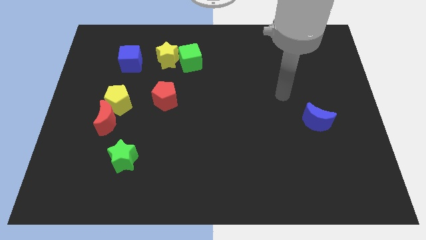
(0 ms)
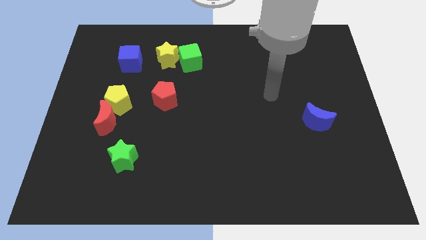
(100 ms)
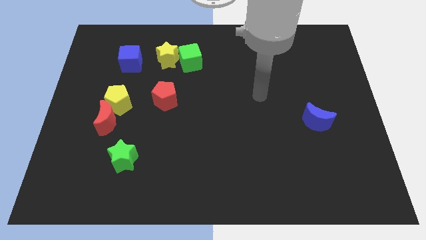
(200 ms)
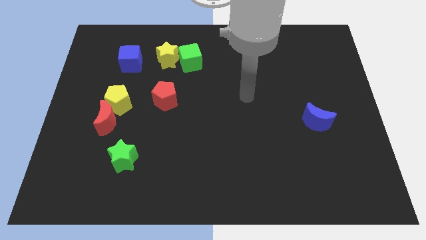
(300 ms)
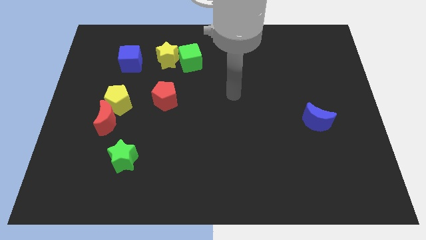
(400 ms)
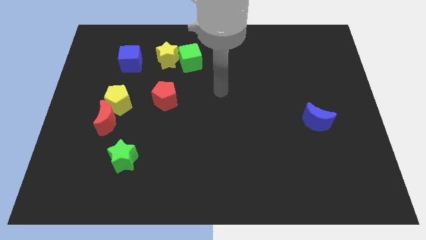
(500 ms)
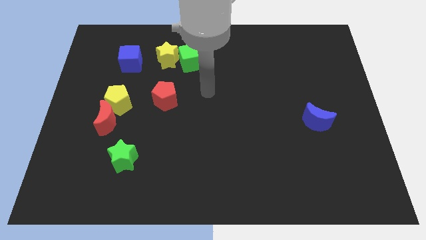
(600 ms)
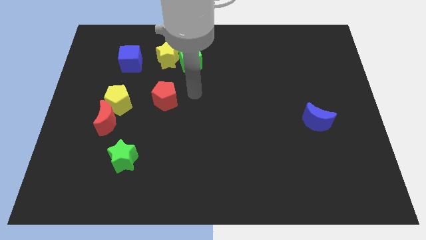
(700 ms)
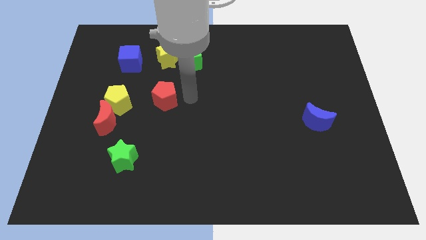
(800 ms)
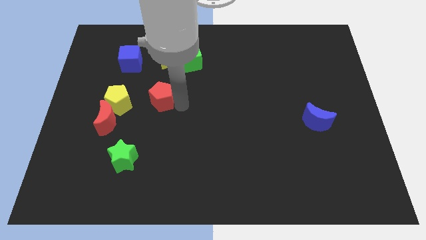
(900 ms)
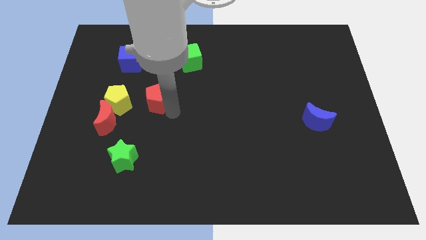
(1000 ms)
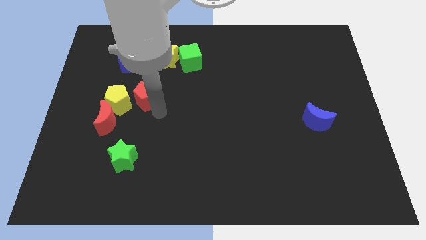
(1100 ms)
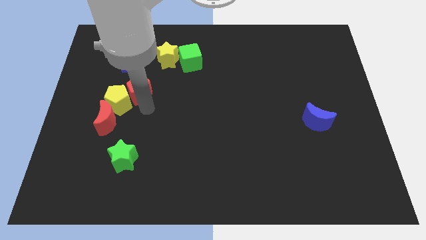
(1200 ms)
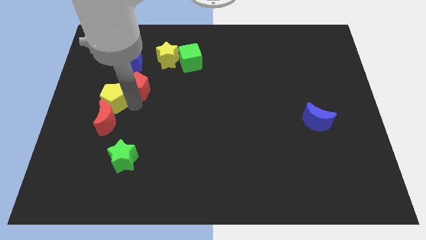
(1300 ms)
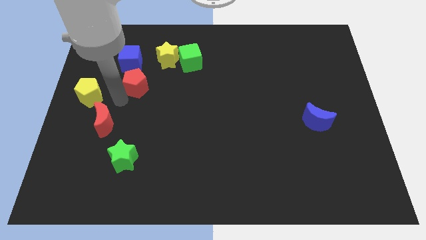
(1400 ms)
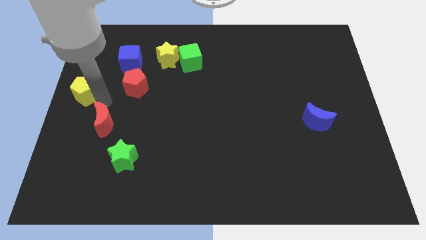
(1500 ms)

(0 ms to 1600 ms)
move the red moon away from the yellow pentagon

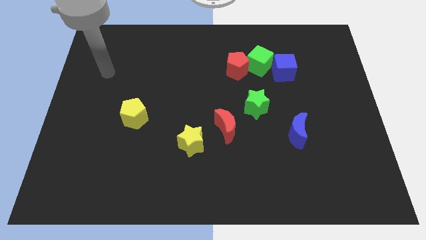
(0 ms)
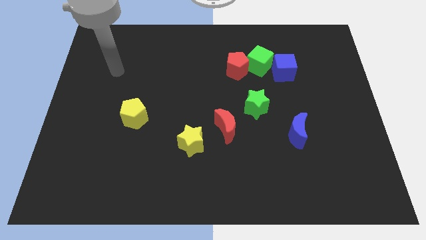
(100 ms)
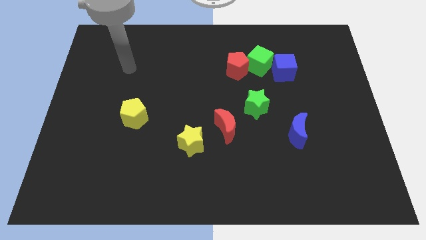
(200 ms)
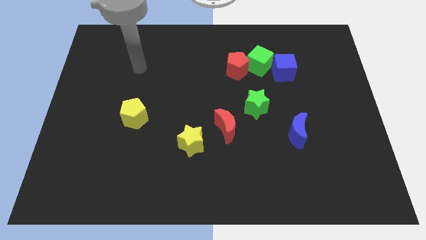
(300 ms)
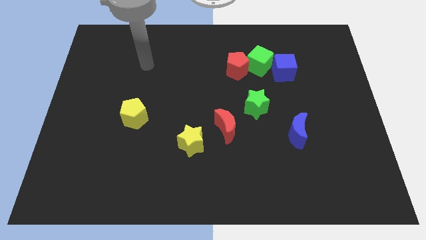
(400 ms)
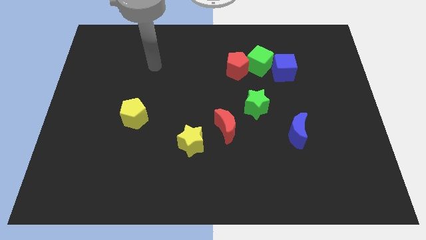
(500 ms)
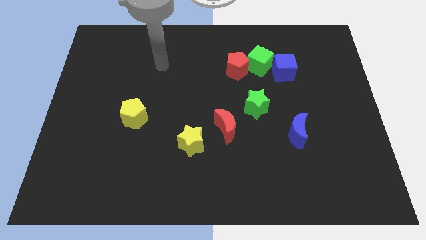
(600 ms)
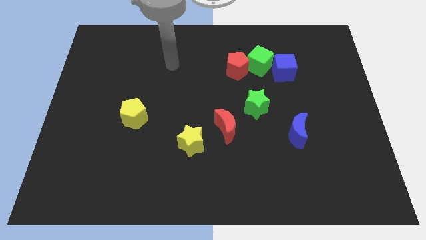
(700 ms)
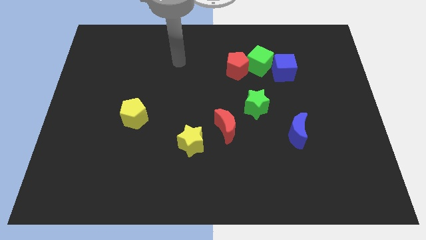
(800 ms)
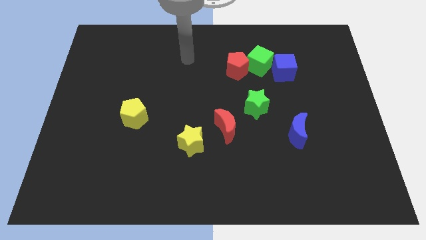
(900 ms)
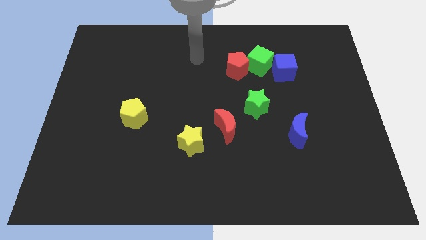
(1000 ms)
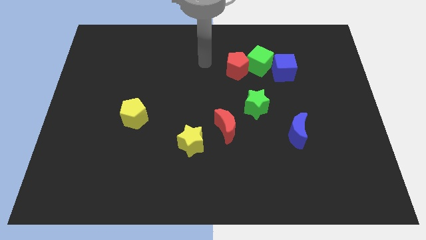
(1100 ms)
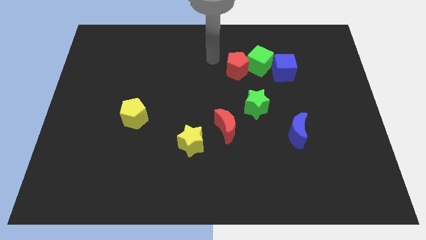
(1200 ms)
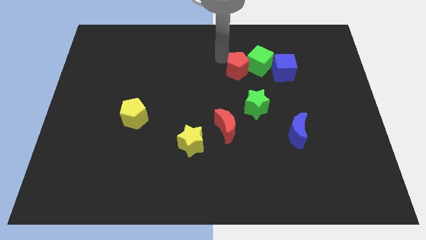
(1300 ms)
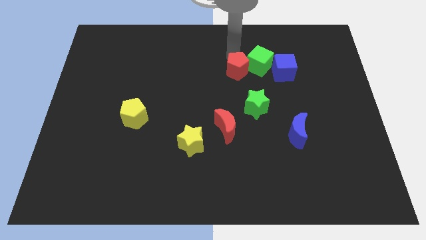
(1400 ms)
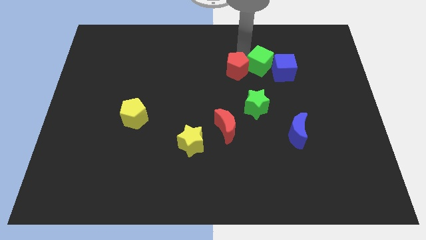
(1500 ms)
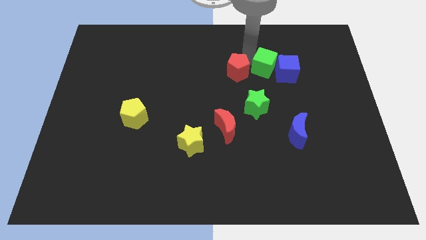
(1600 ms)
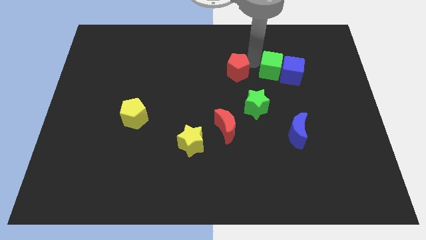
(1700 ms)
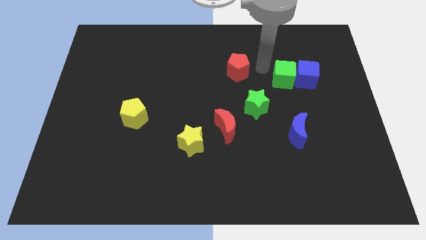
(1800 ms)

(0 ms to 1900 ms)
separate the red pentagon from the green cube

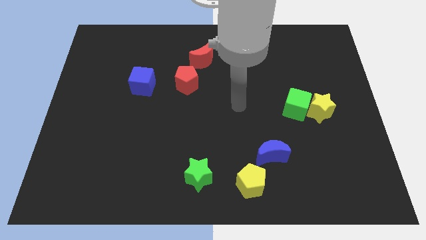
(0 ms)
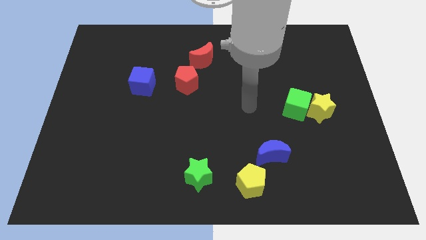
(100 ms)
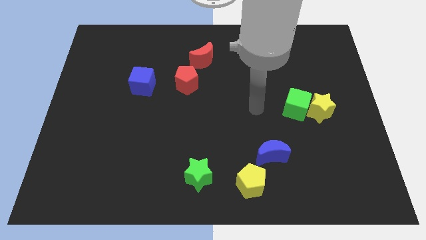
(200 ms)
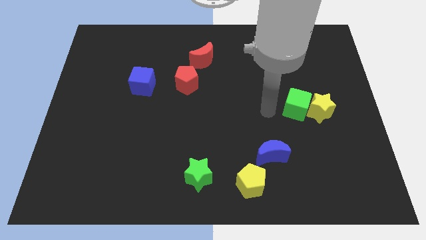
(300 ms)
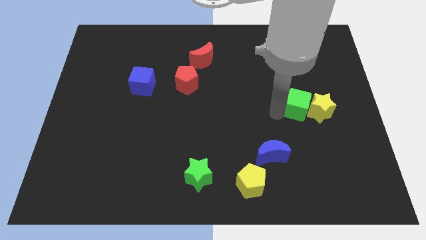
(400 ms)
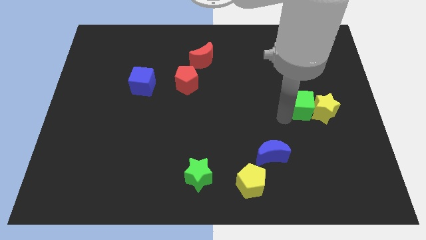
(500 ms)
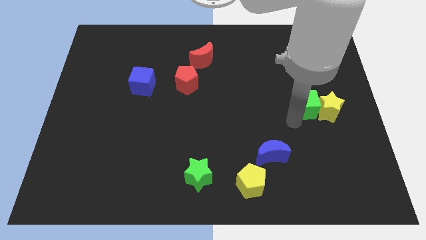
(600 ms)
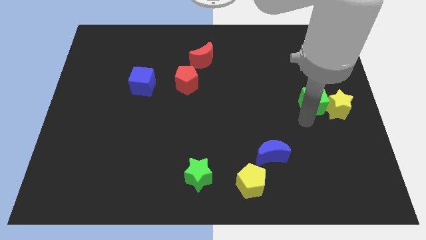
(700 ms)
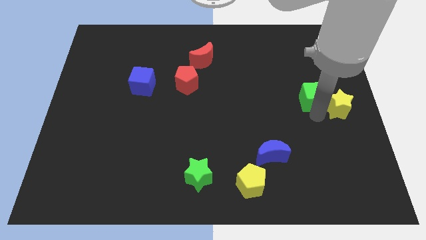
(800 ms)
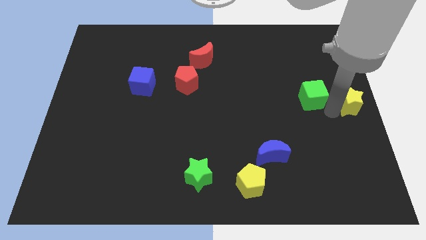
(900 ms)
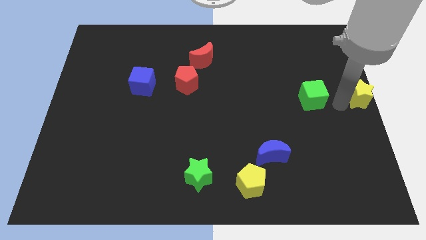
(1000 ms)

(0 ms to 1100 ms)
pull the green cube apart from the yellow star

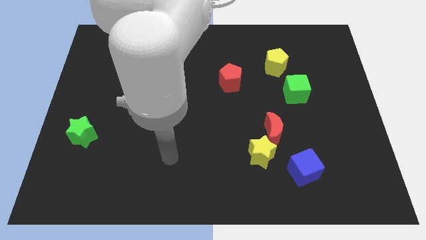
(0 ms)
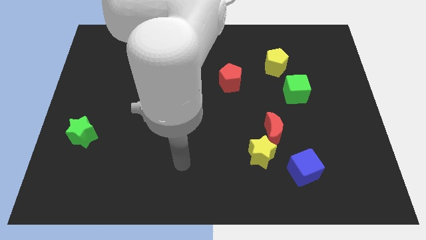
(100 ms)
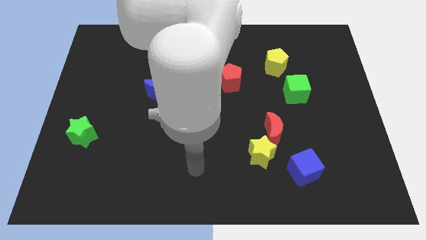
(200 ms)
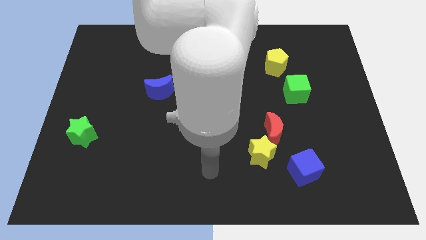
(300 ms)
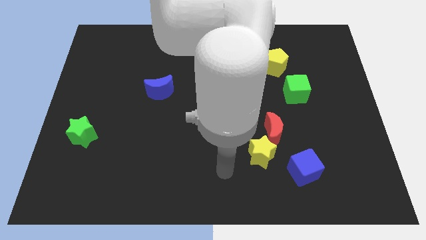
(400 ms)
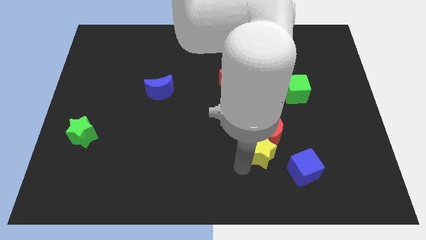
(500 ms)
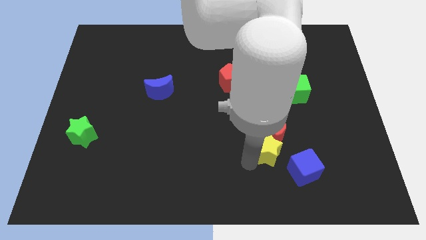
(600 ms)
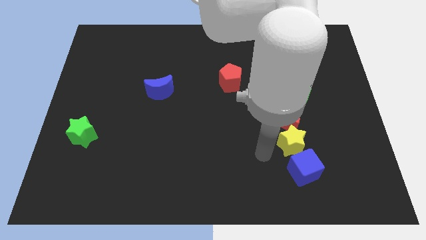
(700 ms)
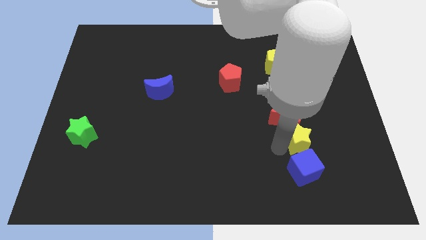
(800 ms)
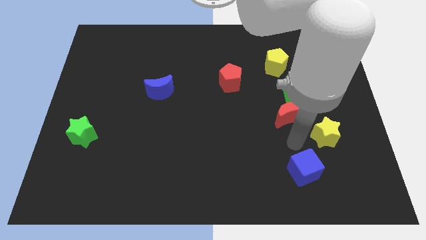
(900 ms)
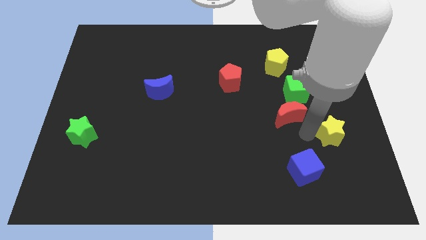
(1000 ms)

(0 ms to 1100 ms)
pull the red moon apart from the yellow star

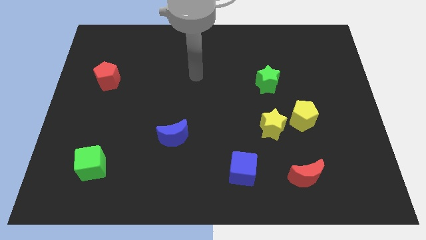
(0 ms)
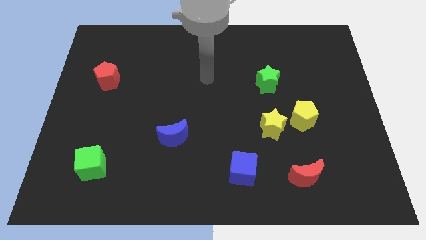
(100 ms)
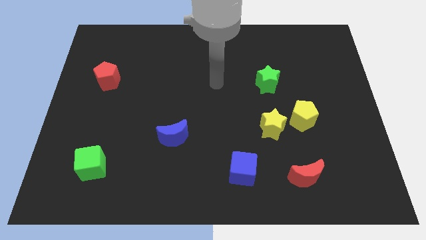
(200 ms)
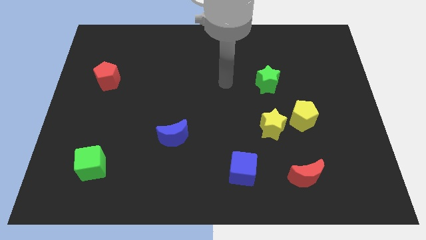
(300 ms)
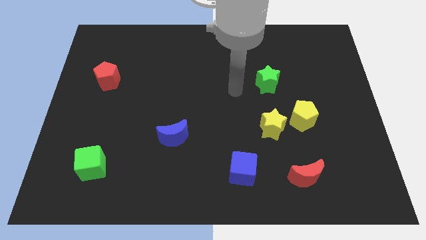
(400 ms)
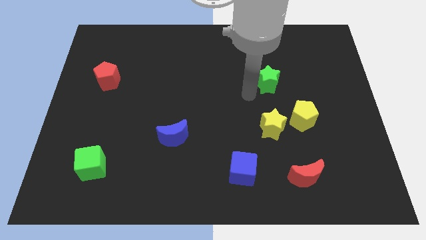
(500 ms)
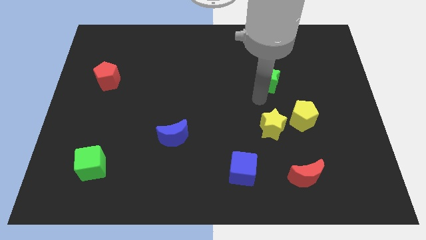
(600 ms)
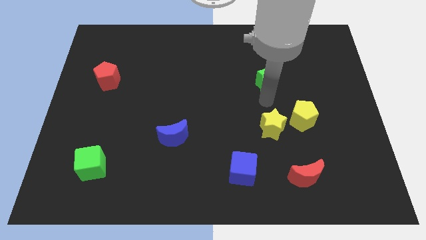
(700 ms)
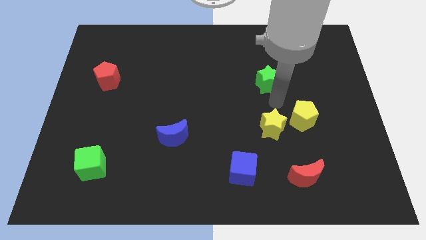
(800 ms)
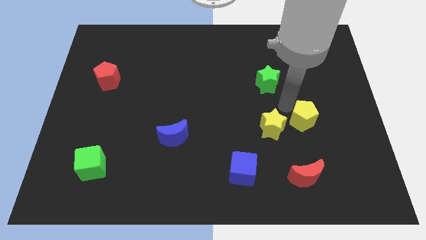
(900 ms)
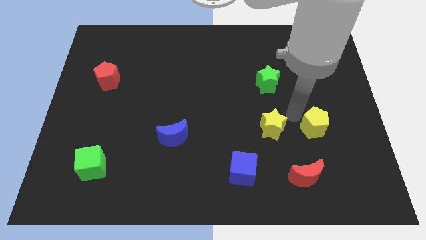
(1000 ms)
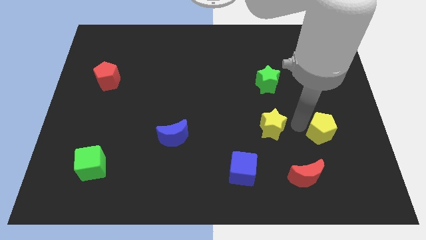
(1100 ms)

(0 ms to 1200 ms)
separate the yellow star from the yellow pentagon

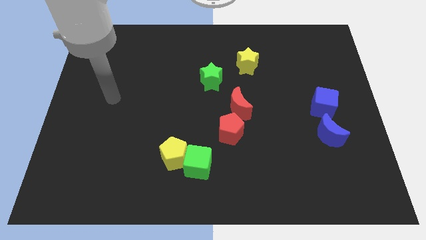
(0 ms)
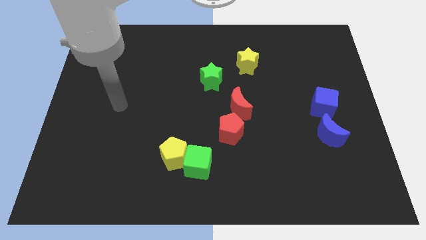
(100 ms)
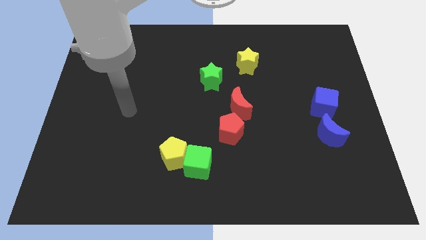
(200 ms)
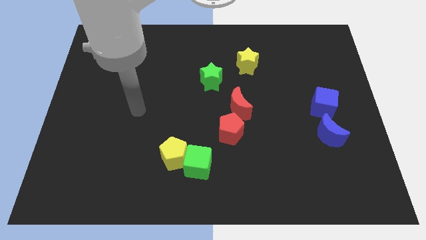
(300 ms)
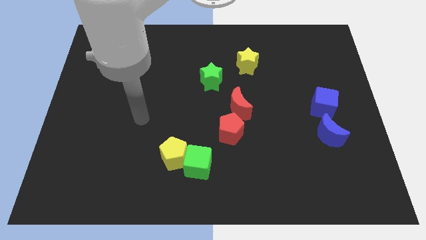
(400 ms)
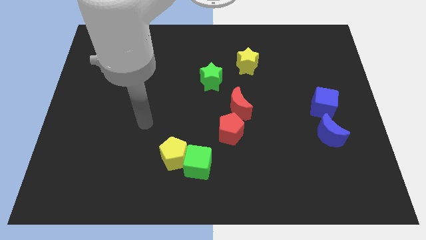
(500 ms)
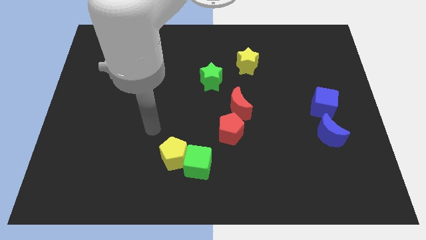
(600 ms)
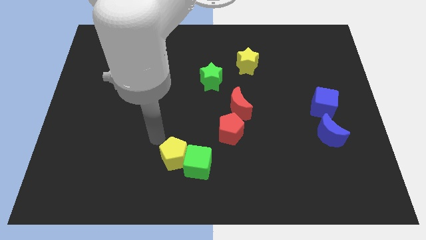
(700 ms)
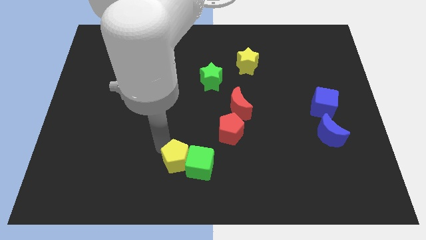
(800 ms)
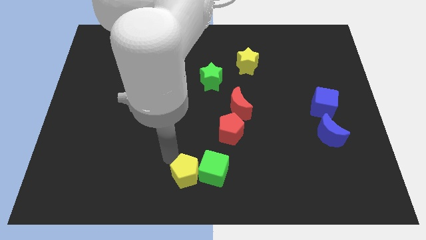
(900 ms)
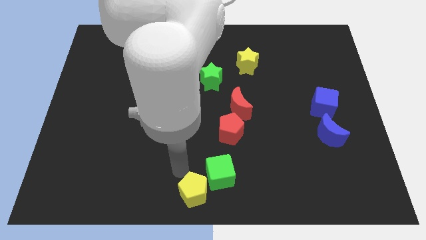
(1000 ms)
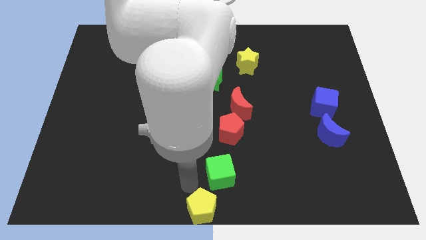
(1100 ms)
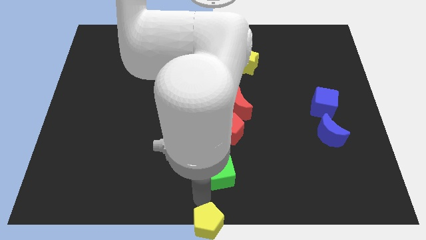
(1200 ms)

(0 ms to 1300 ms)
pull the green cube apart from the yellow pentagon

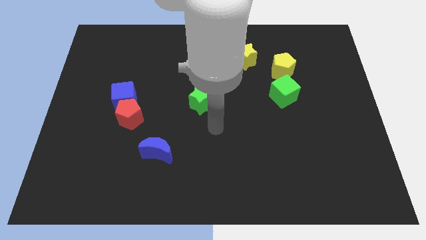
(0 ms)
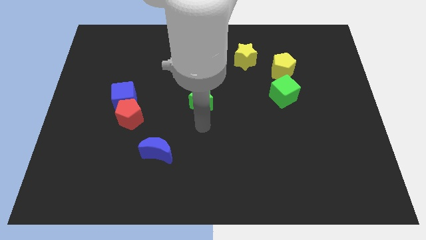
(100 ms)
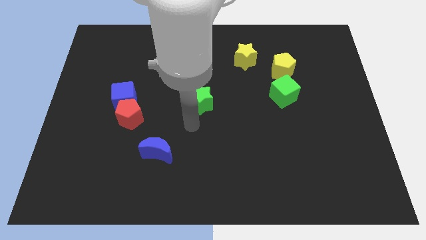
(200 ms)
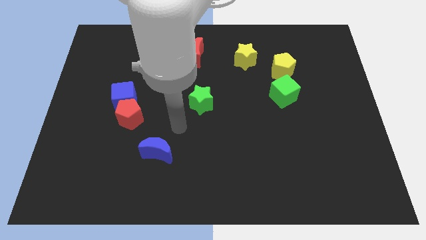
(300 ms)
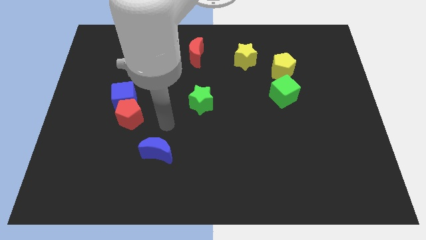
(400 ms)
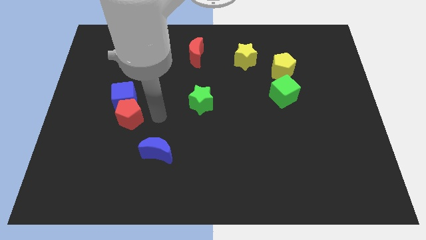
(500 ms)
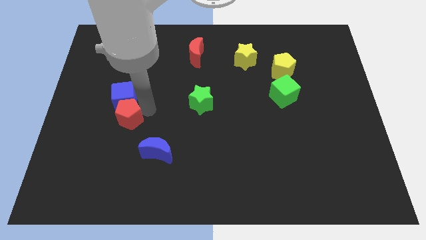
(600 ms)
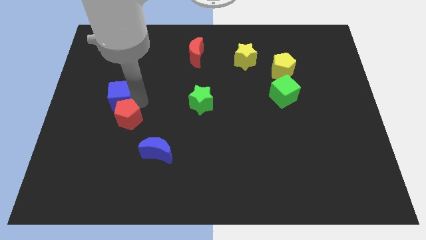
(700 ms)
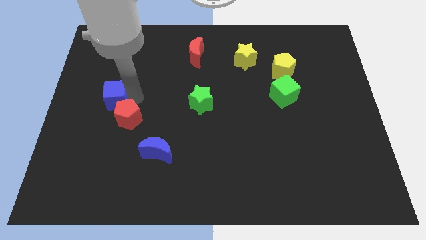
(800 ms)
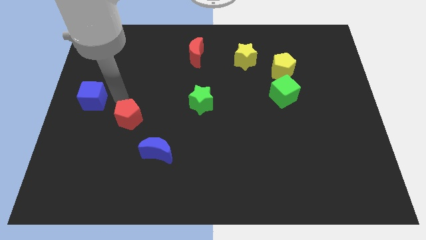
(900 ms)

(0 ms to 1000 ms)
pull the red pentagon apart from the blue cube
